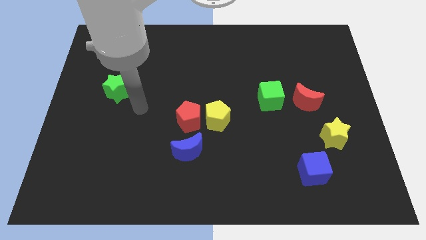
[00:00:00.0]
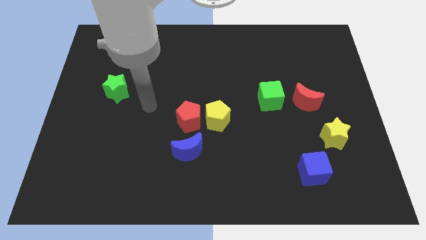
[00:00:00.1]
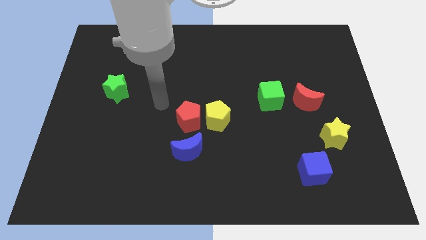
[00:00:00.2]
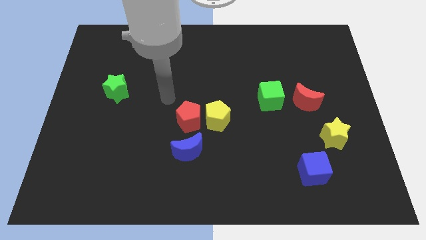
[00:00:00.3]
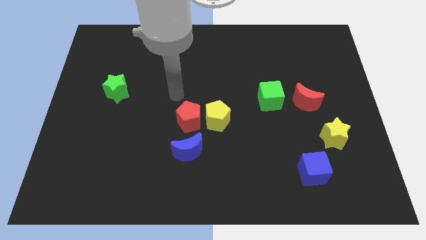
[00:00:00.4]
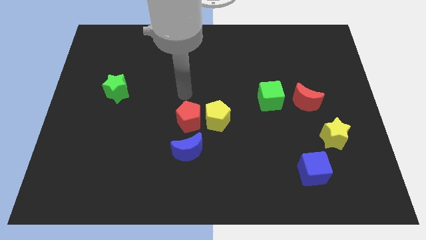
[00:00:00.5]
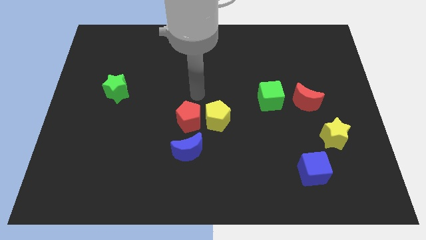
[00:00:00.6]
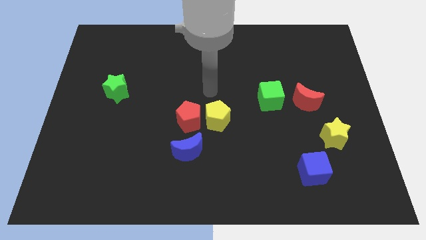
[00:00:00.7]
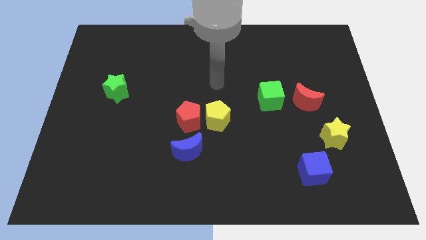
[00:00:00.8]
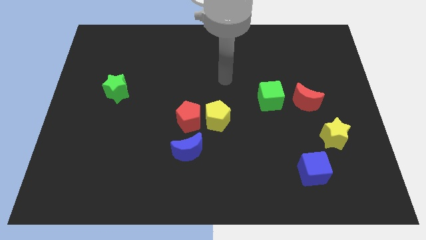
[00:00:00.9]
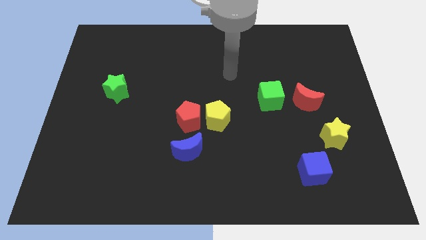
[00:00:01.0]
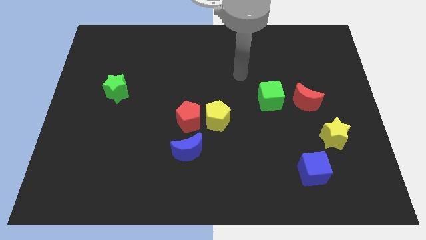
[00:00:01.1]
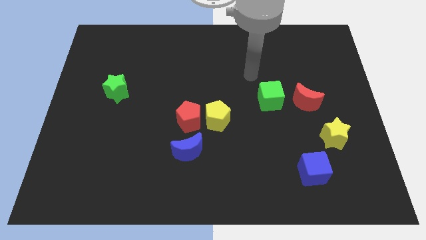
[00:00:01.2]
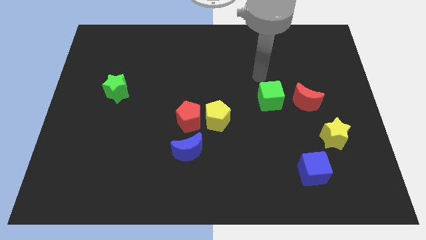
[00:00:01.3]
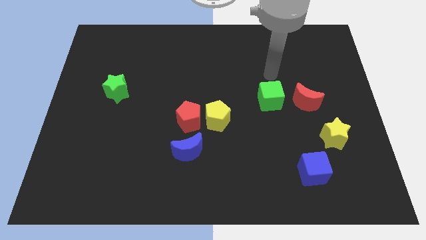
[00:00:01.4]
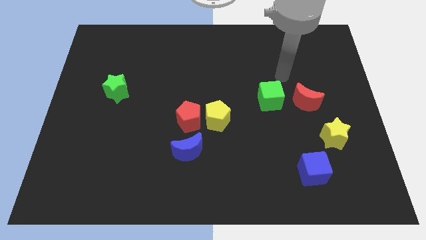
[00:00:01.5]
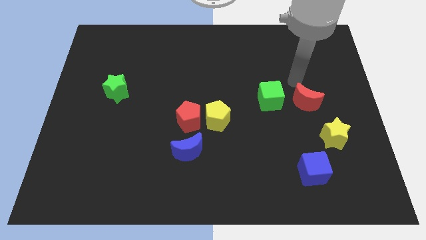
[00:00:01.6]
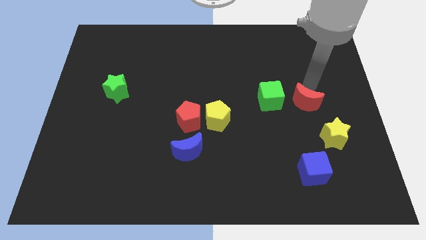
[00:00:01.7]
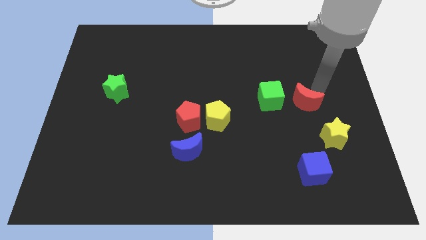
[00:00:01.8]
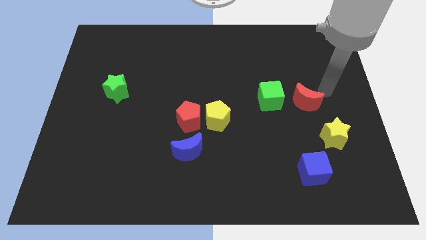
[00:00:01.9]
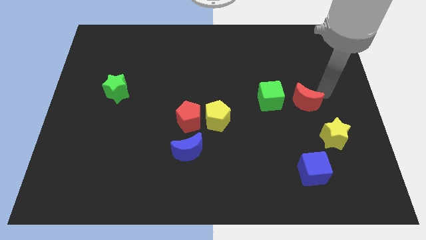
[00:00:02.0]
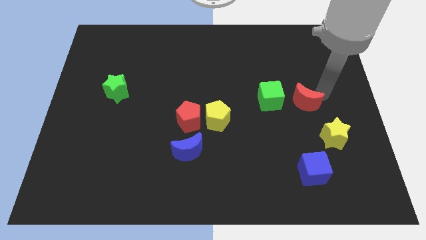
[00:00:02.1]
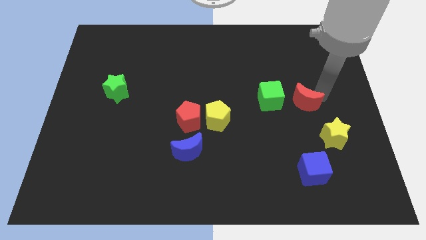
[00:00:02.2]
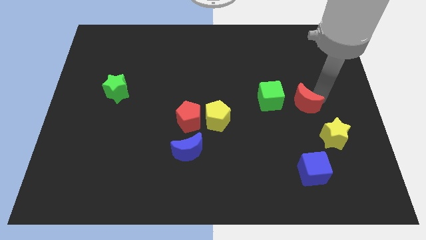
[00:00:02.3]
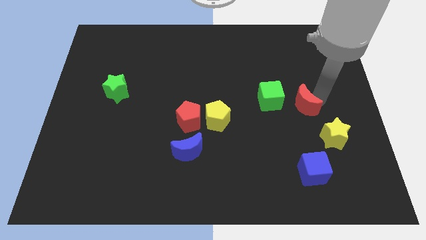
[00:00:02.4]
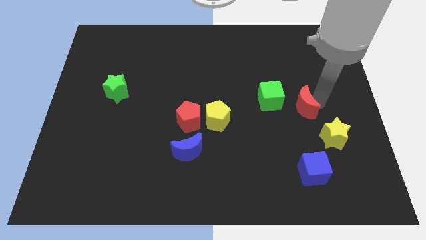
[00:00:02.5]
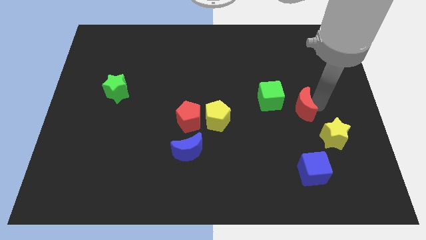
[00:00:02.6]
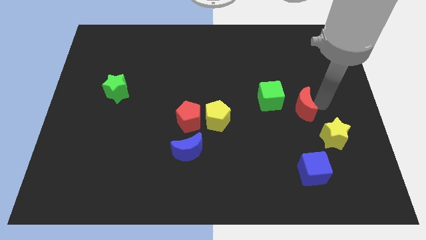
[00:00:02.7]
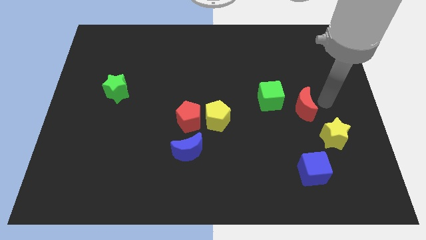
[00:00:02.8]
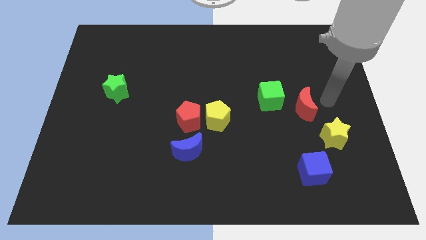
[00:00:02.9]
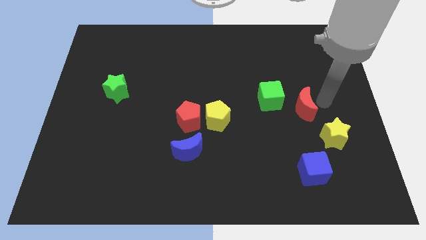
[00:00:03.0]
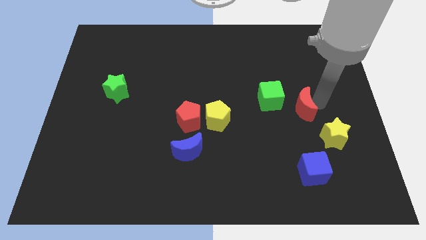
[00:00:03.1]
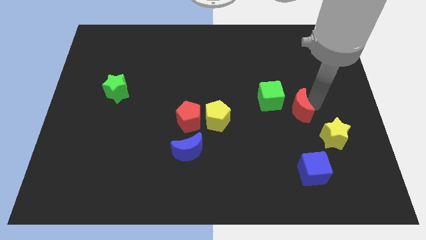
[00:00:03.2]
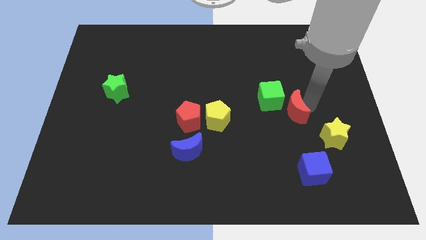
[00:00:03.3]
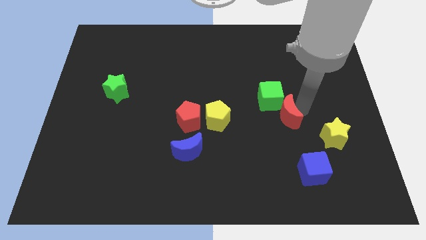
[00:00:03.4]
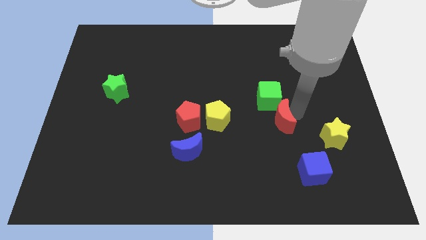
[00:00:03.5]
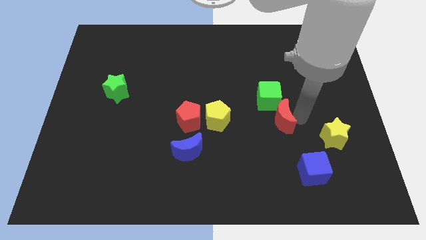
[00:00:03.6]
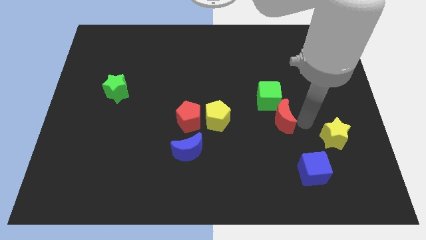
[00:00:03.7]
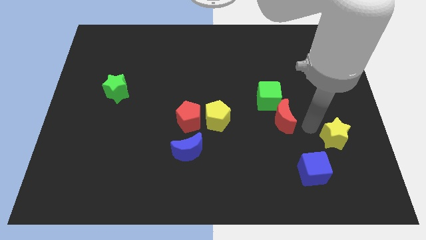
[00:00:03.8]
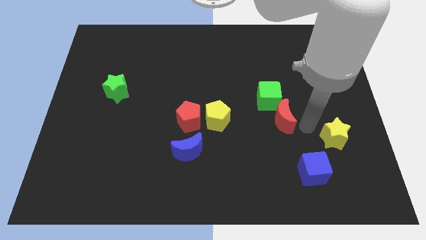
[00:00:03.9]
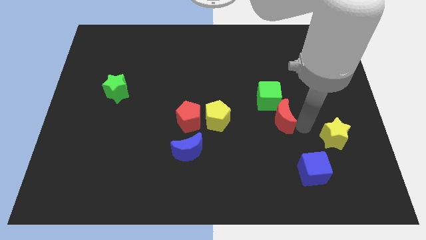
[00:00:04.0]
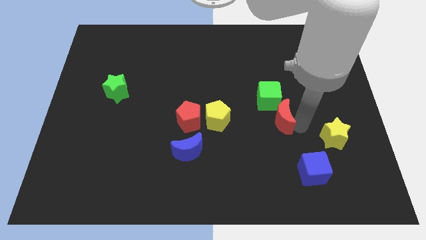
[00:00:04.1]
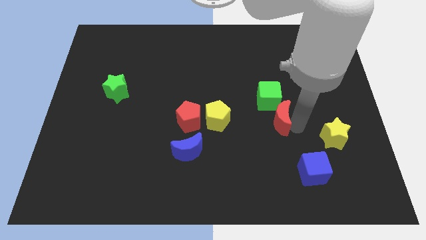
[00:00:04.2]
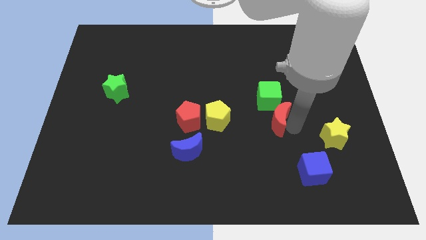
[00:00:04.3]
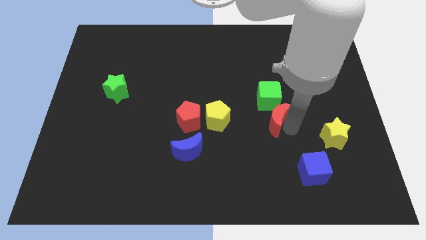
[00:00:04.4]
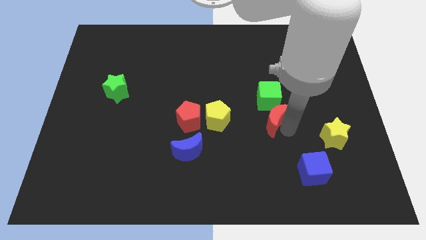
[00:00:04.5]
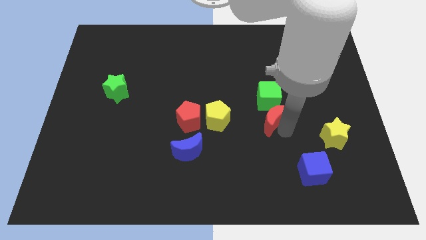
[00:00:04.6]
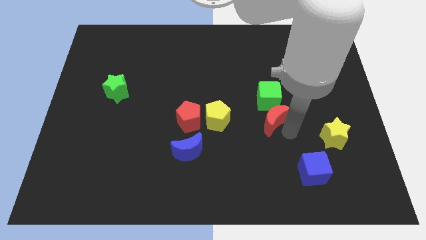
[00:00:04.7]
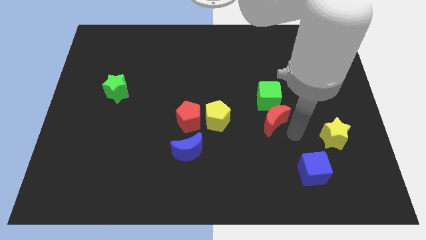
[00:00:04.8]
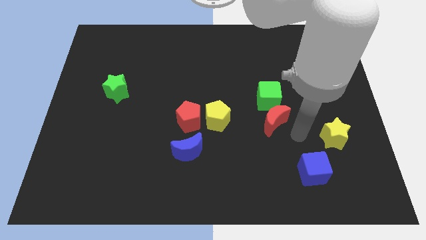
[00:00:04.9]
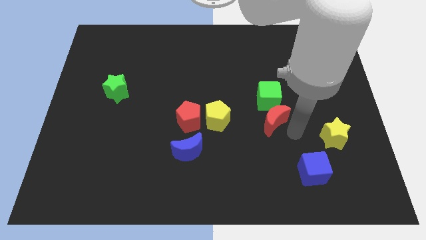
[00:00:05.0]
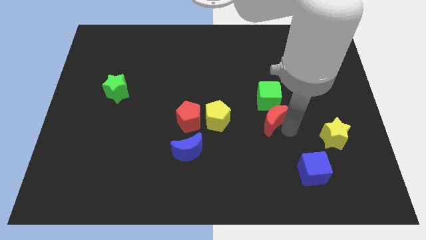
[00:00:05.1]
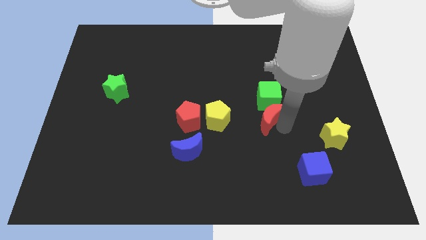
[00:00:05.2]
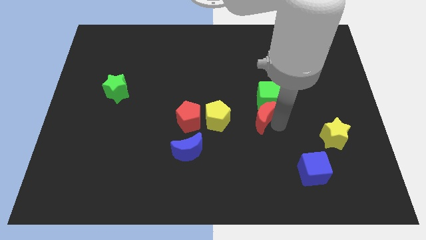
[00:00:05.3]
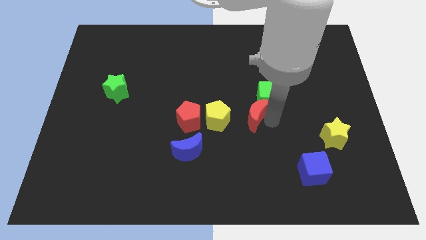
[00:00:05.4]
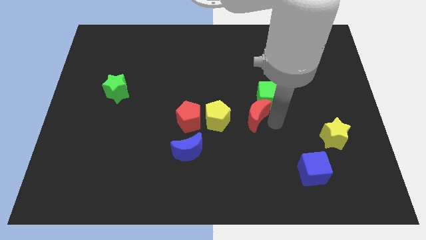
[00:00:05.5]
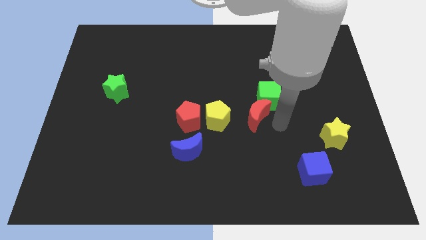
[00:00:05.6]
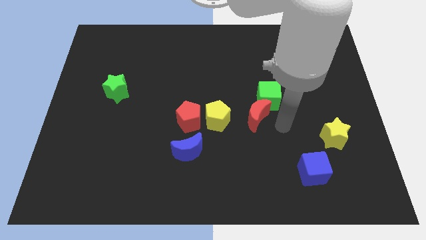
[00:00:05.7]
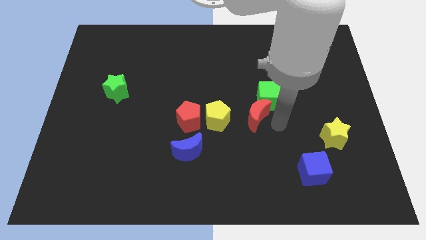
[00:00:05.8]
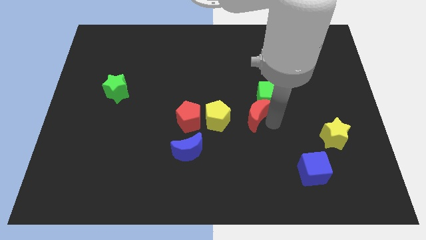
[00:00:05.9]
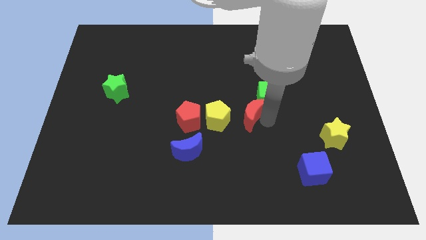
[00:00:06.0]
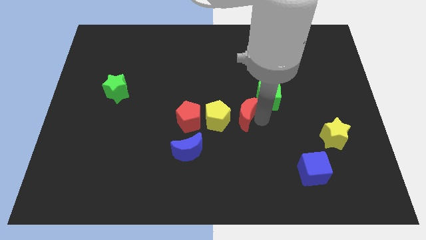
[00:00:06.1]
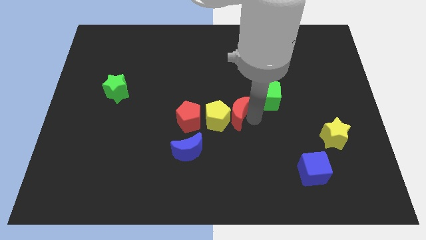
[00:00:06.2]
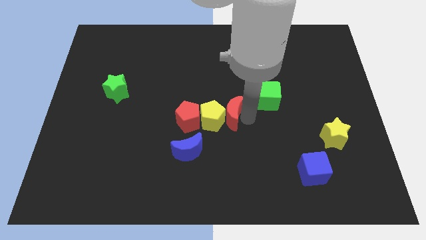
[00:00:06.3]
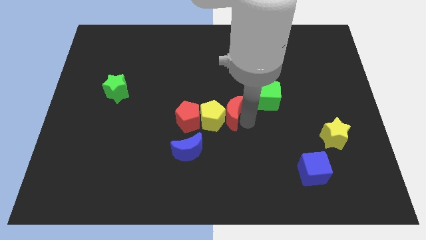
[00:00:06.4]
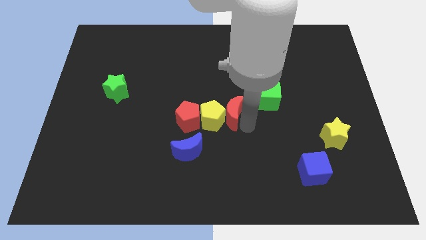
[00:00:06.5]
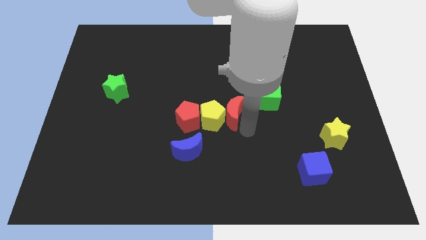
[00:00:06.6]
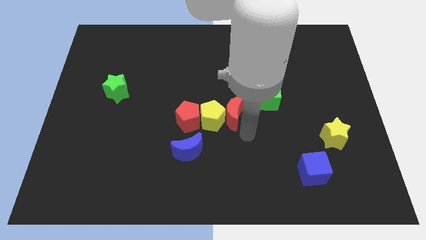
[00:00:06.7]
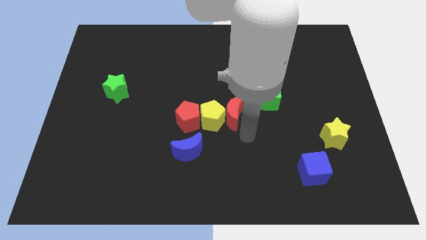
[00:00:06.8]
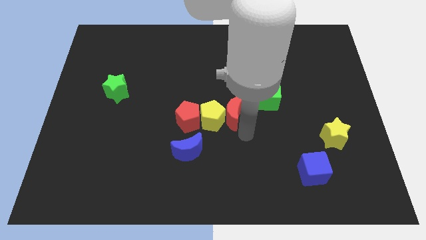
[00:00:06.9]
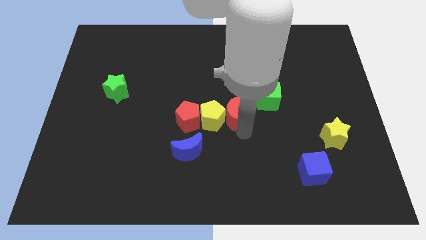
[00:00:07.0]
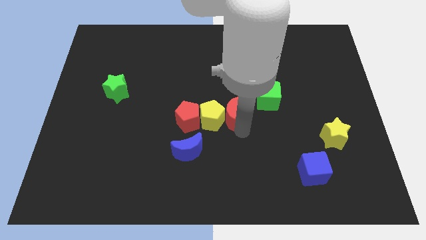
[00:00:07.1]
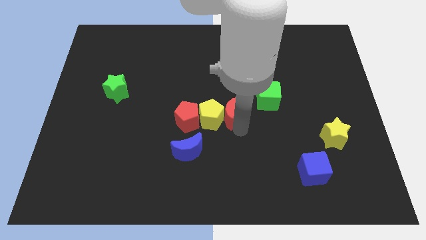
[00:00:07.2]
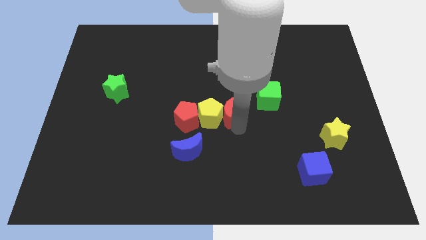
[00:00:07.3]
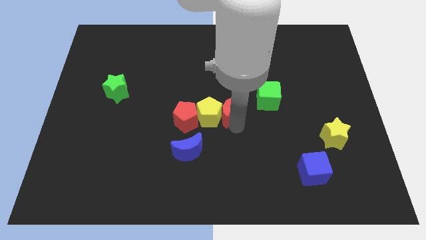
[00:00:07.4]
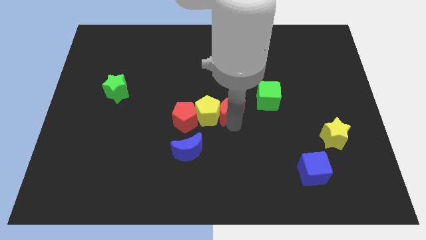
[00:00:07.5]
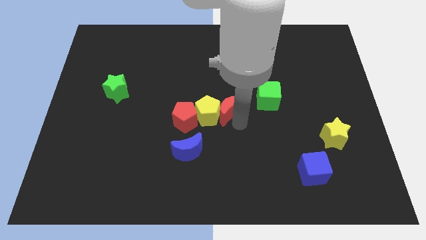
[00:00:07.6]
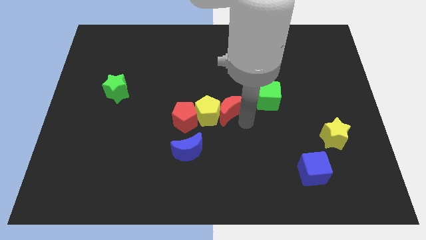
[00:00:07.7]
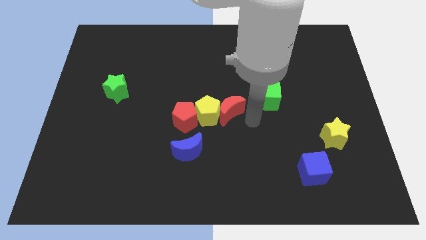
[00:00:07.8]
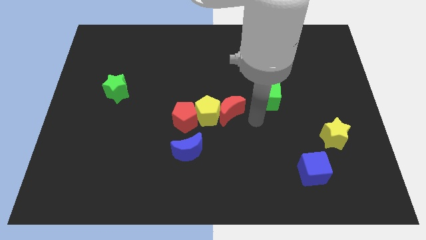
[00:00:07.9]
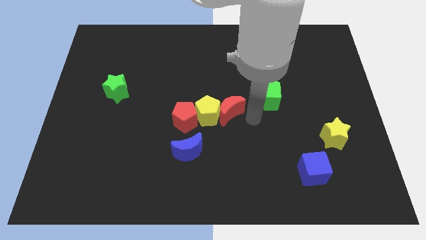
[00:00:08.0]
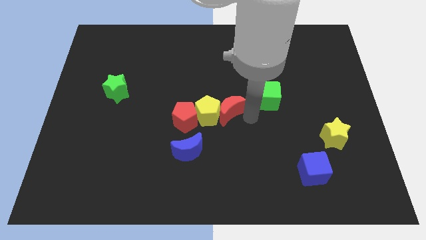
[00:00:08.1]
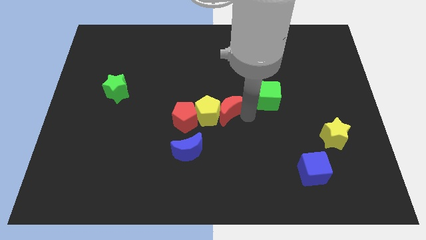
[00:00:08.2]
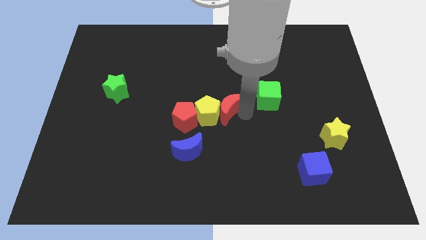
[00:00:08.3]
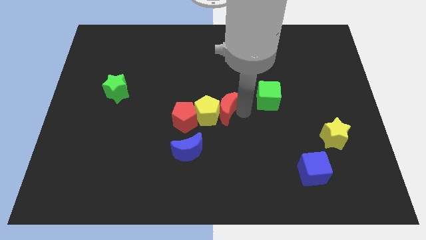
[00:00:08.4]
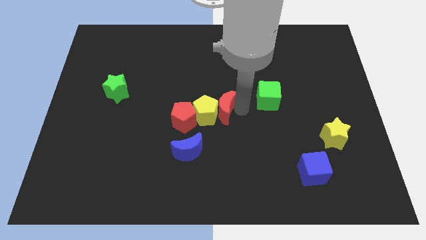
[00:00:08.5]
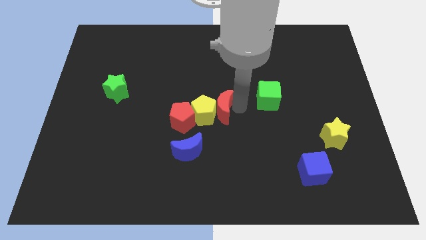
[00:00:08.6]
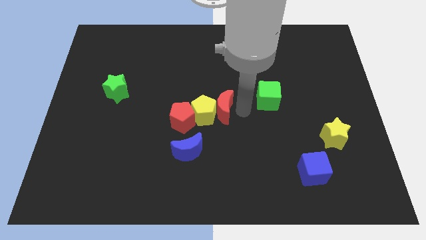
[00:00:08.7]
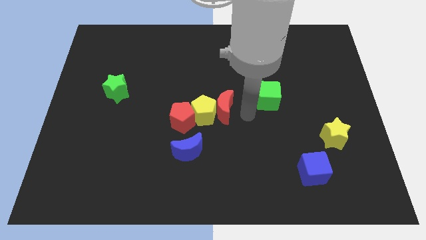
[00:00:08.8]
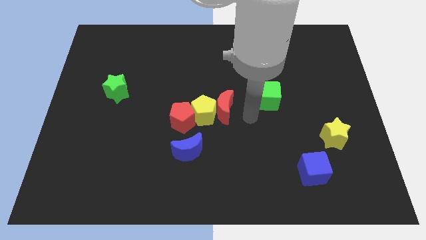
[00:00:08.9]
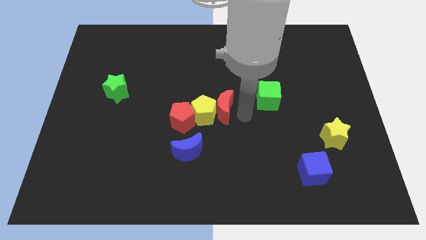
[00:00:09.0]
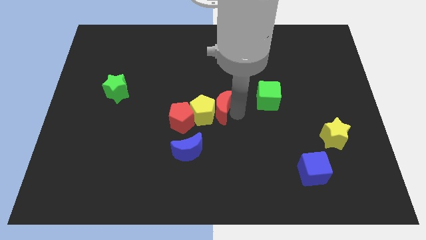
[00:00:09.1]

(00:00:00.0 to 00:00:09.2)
slide the red moon left
